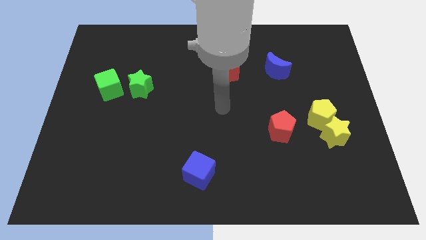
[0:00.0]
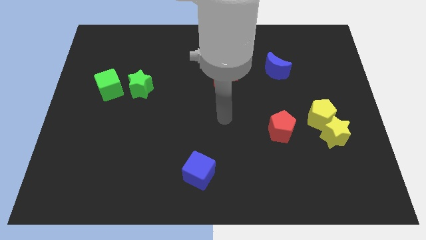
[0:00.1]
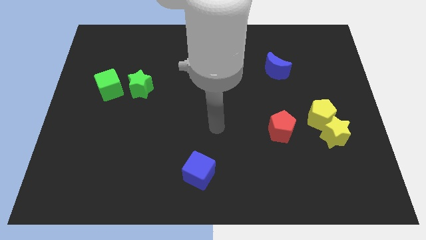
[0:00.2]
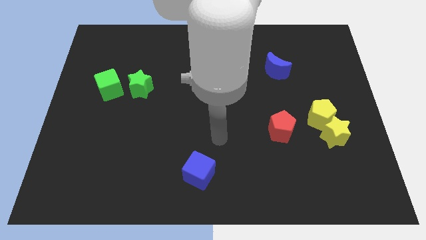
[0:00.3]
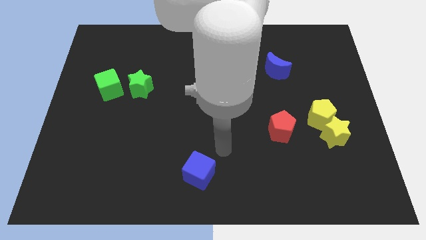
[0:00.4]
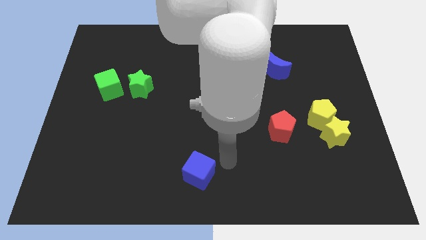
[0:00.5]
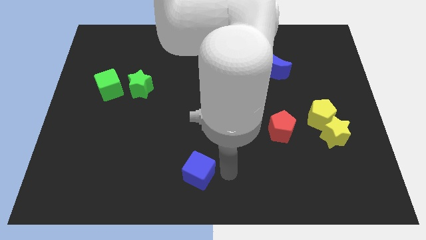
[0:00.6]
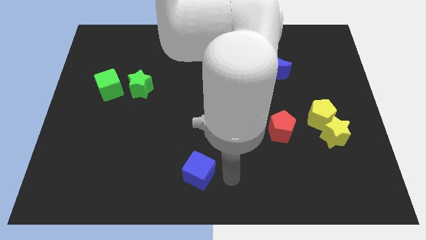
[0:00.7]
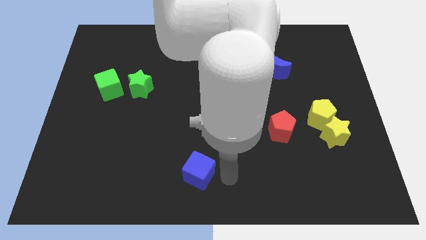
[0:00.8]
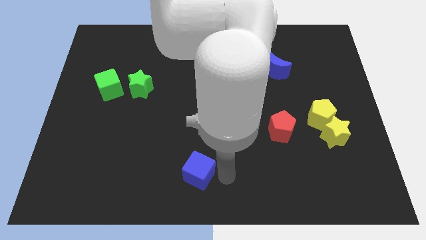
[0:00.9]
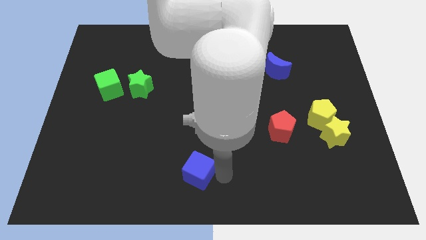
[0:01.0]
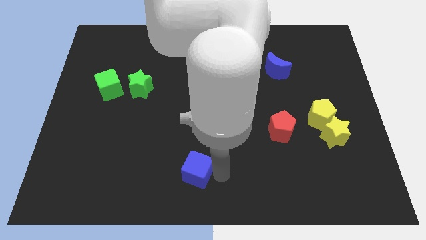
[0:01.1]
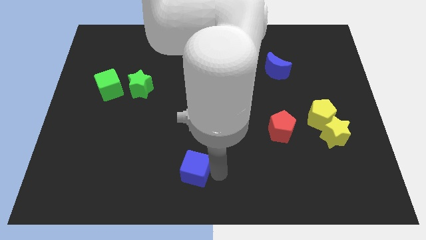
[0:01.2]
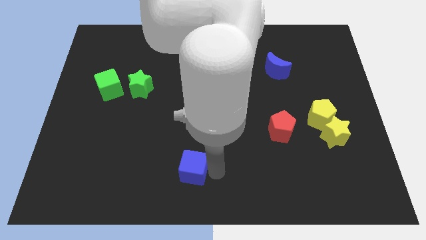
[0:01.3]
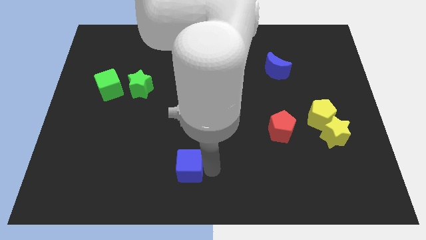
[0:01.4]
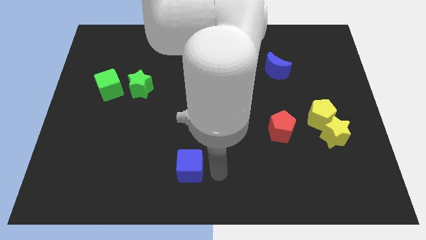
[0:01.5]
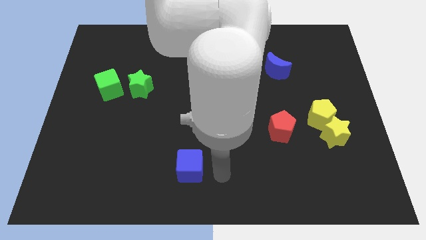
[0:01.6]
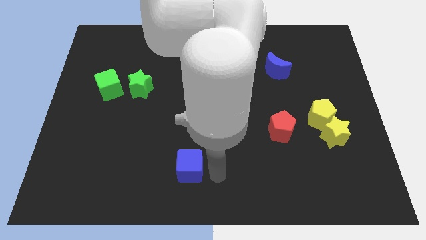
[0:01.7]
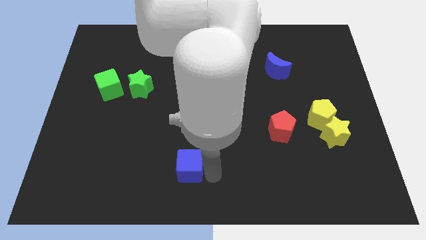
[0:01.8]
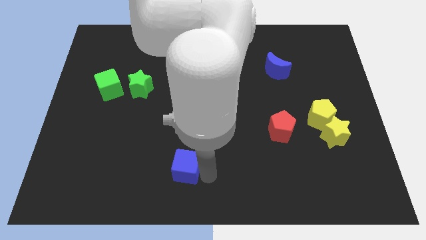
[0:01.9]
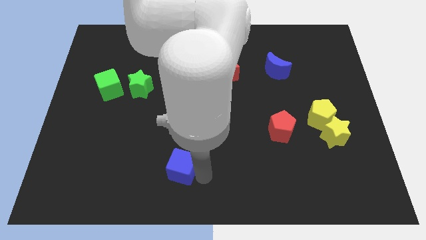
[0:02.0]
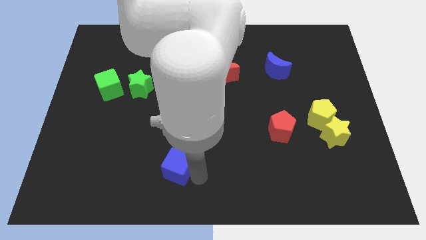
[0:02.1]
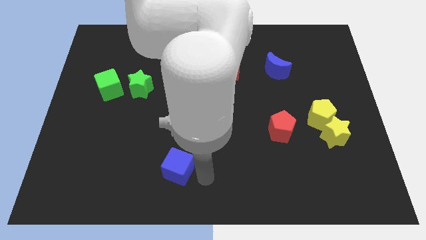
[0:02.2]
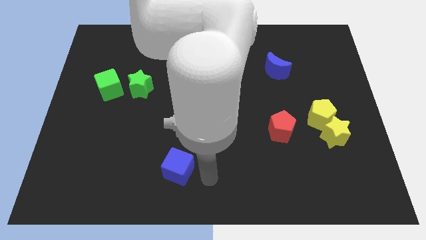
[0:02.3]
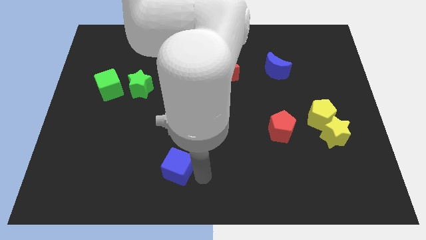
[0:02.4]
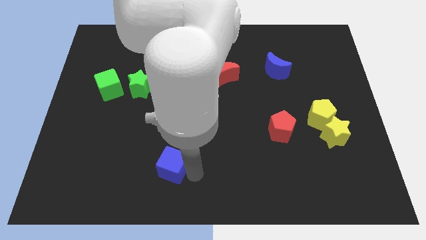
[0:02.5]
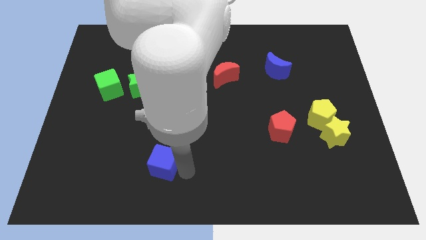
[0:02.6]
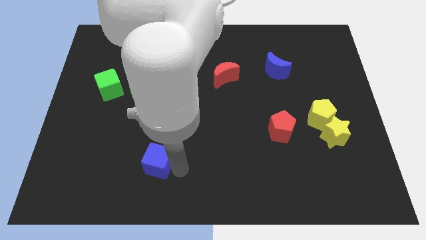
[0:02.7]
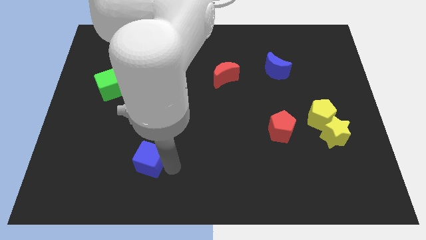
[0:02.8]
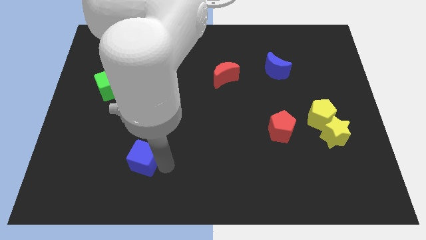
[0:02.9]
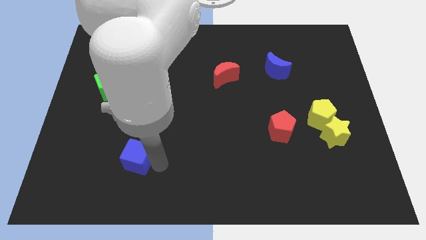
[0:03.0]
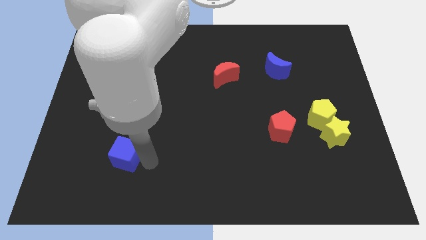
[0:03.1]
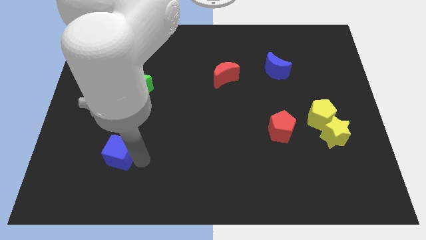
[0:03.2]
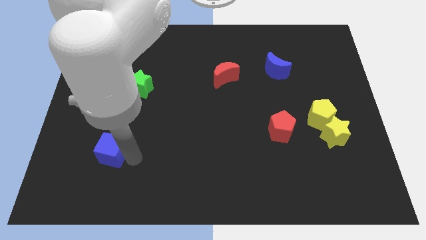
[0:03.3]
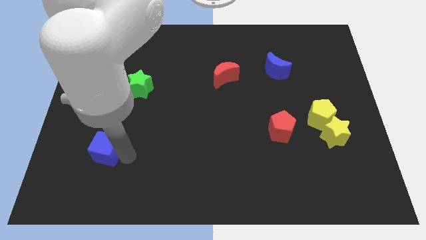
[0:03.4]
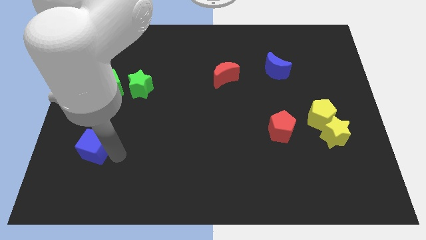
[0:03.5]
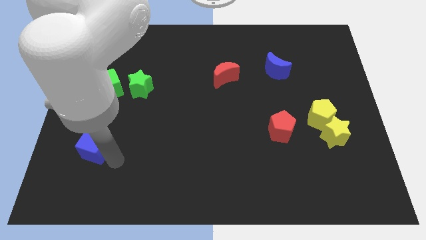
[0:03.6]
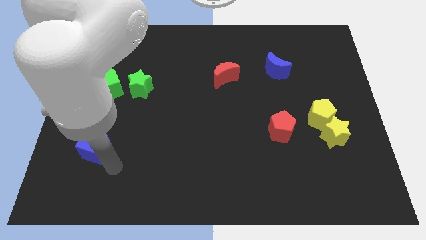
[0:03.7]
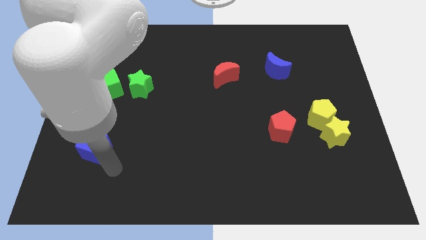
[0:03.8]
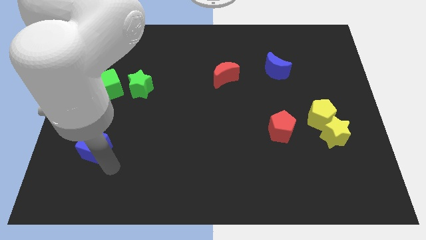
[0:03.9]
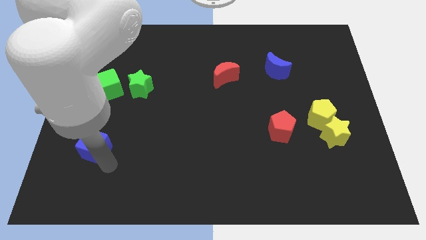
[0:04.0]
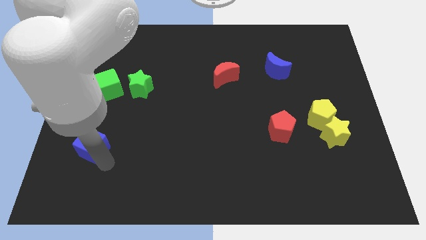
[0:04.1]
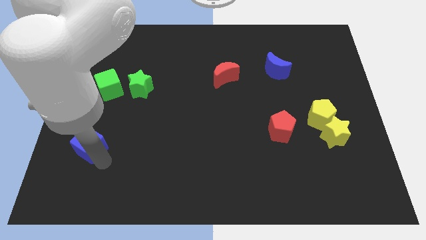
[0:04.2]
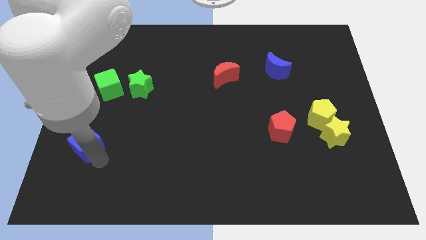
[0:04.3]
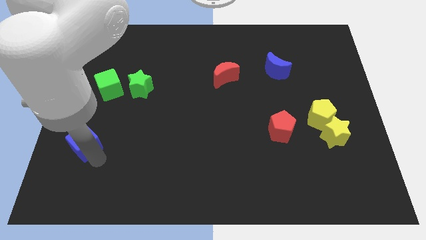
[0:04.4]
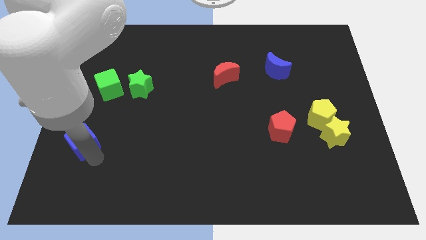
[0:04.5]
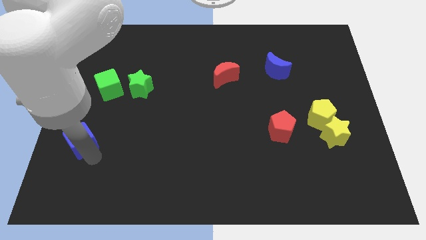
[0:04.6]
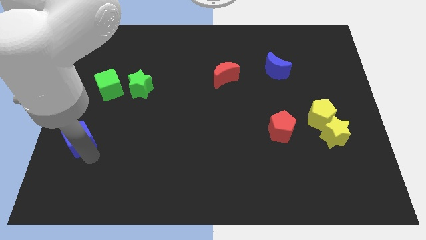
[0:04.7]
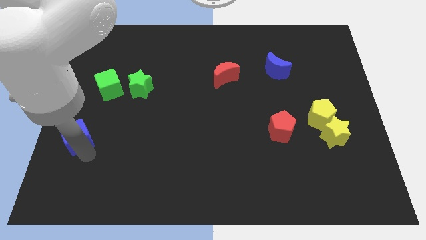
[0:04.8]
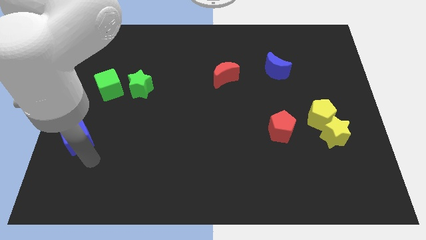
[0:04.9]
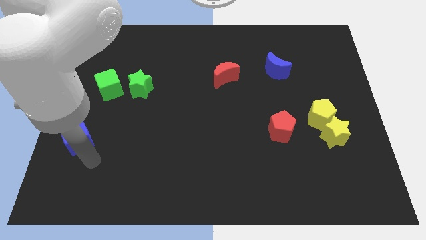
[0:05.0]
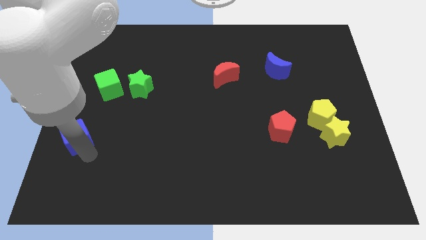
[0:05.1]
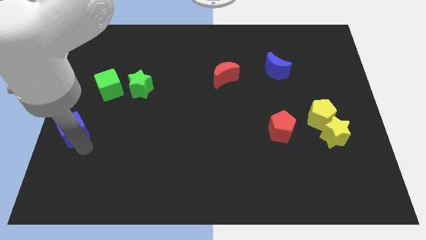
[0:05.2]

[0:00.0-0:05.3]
move the blue cube to the left side of the board
